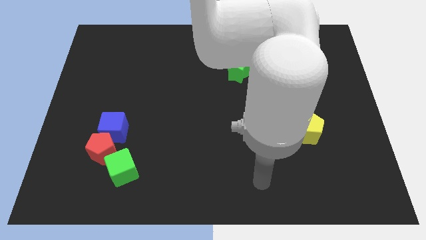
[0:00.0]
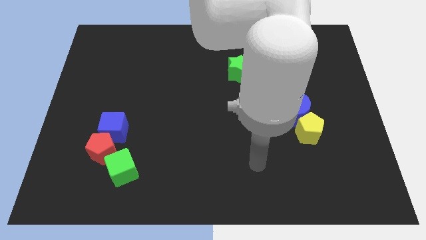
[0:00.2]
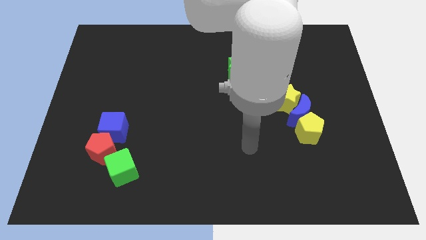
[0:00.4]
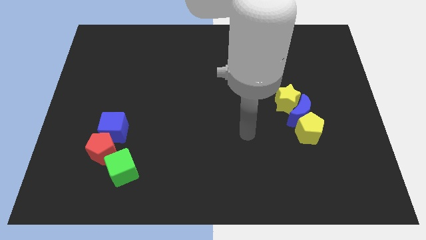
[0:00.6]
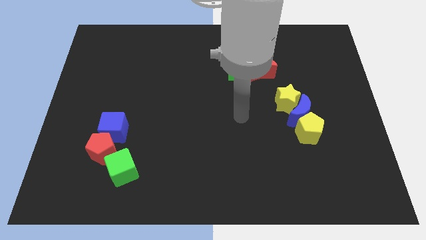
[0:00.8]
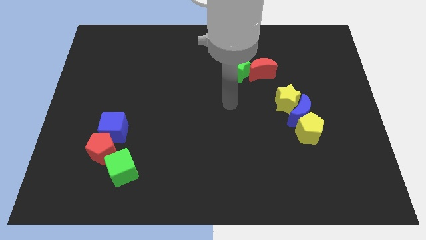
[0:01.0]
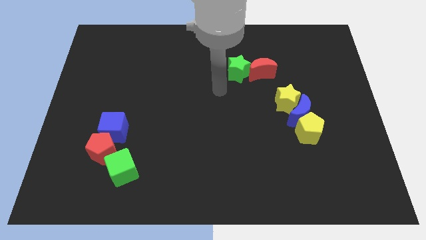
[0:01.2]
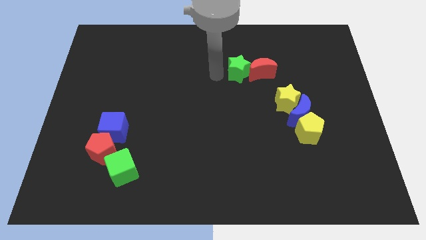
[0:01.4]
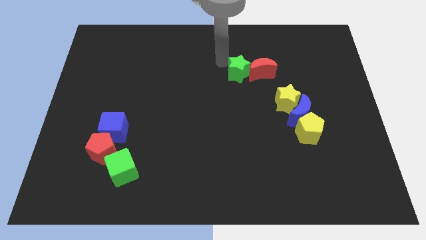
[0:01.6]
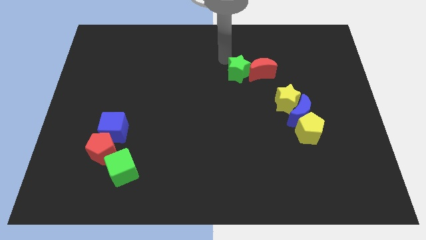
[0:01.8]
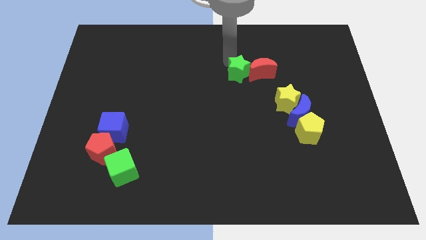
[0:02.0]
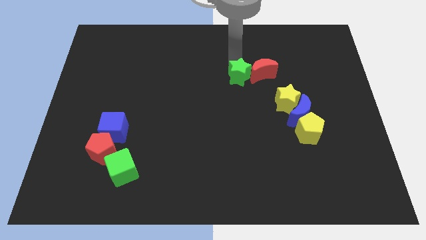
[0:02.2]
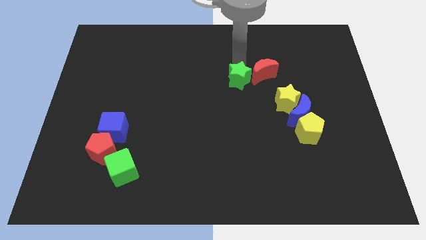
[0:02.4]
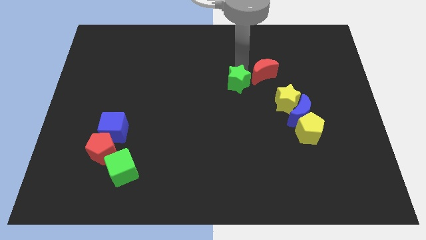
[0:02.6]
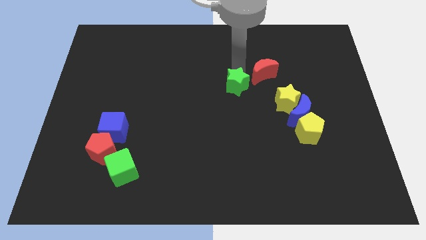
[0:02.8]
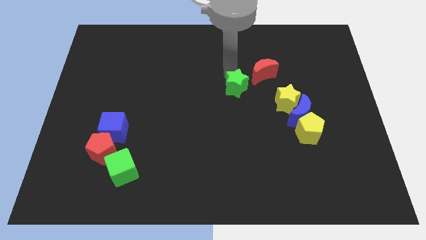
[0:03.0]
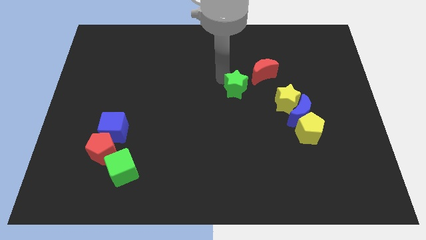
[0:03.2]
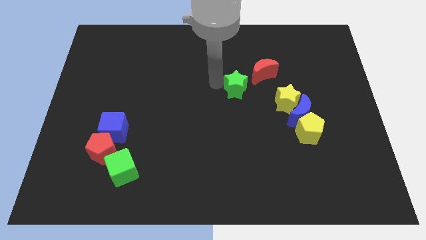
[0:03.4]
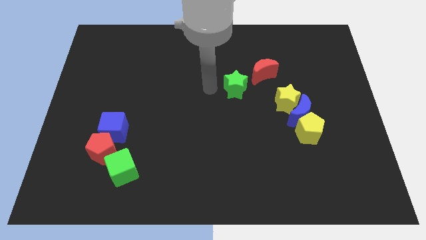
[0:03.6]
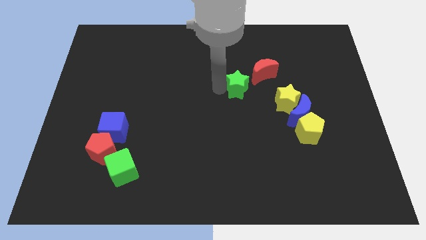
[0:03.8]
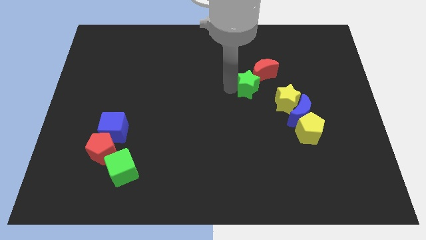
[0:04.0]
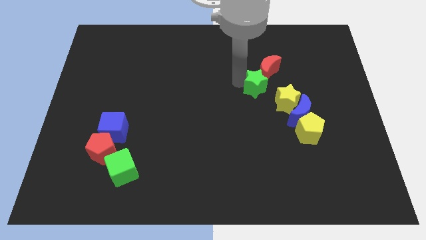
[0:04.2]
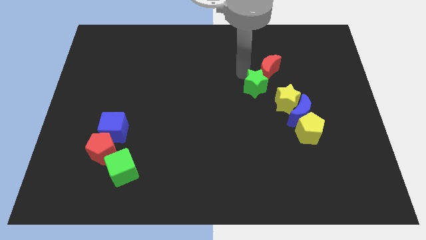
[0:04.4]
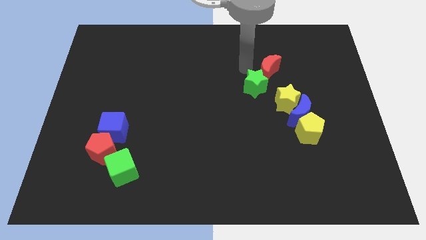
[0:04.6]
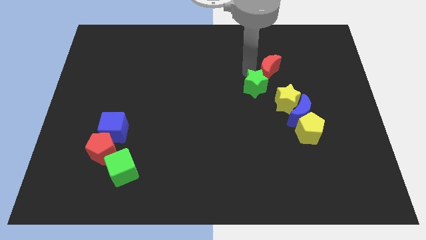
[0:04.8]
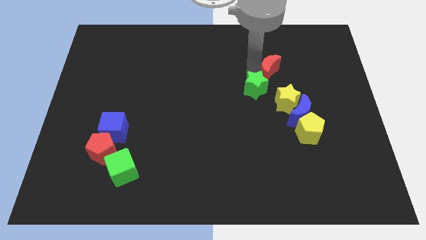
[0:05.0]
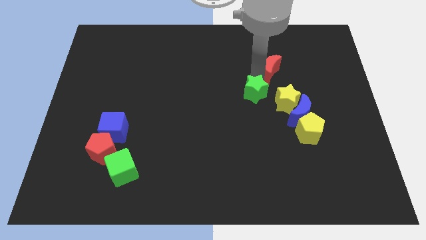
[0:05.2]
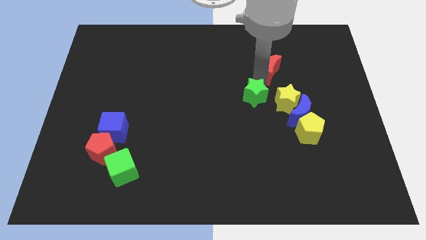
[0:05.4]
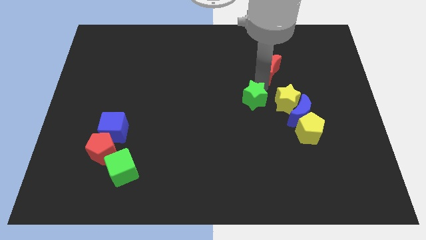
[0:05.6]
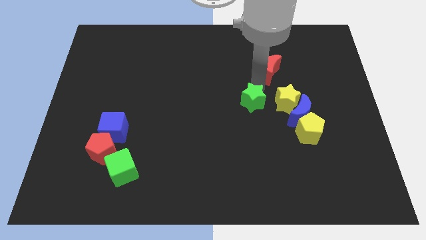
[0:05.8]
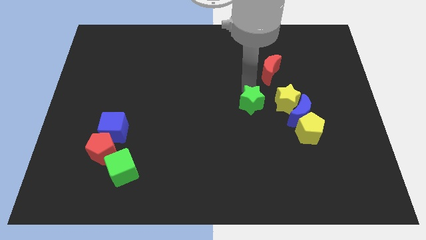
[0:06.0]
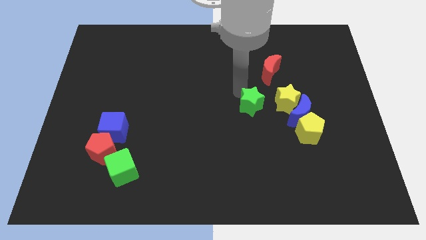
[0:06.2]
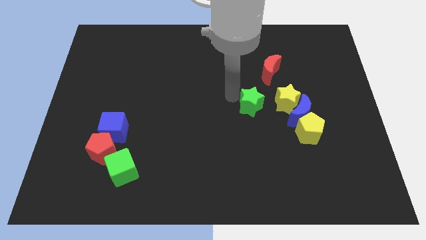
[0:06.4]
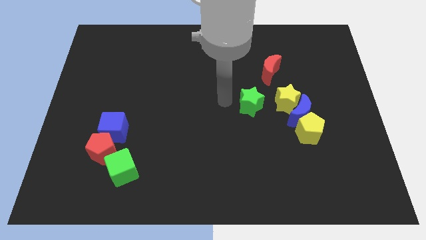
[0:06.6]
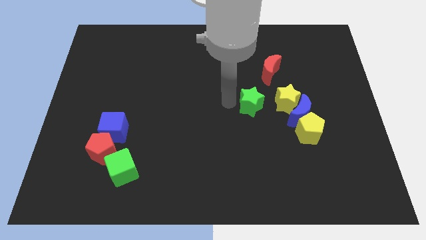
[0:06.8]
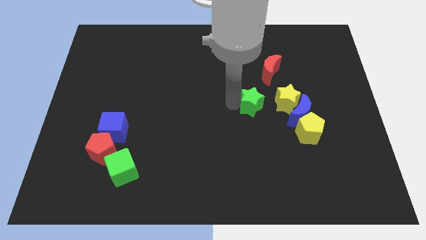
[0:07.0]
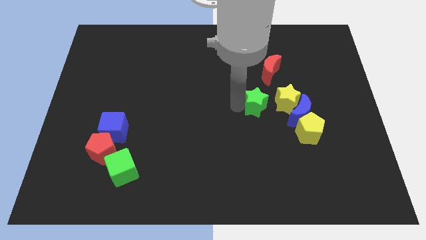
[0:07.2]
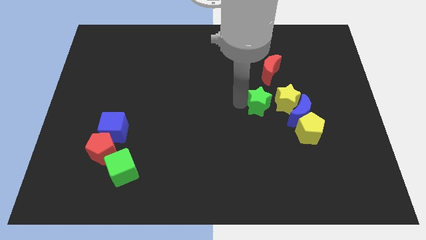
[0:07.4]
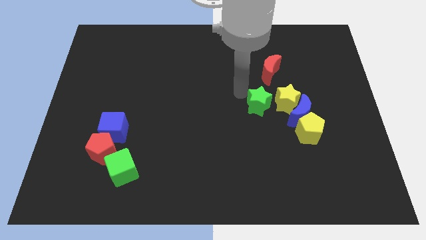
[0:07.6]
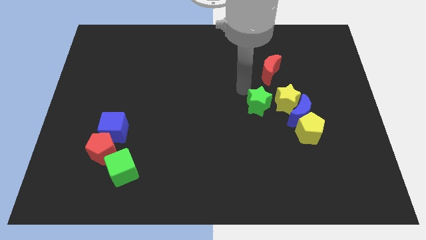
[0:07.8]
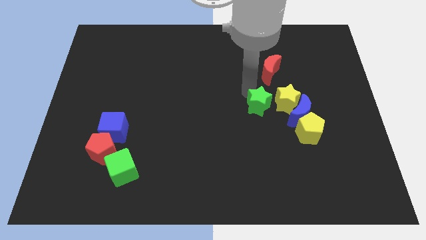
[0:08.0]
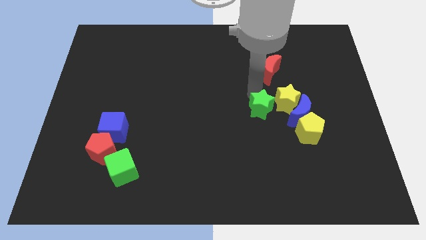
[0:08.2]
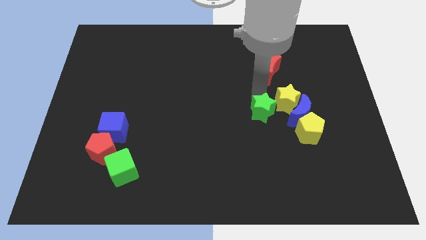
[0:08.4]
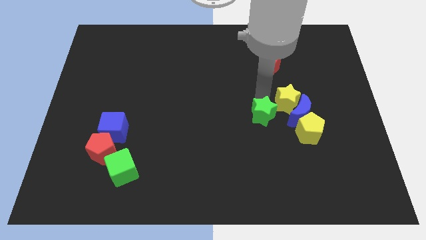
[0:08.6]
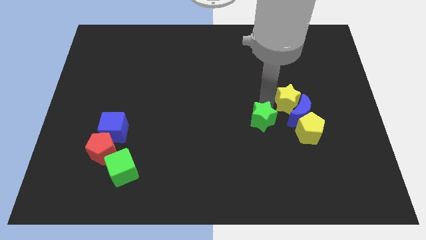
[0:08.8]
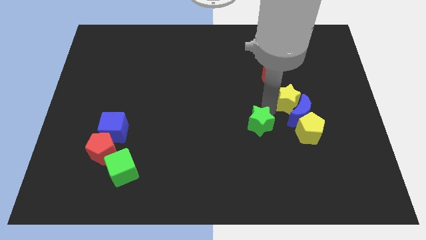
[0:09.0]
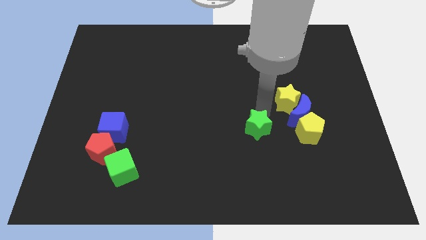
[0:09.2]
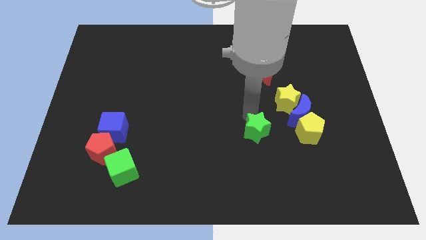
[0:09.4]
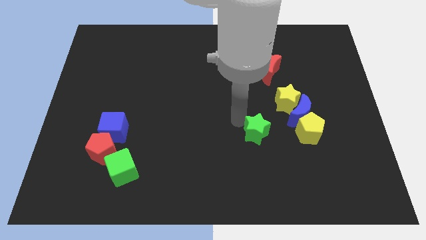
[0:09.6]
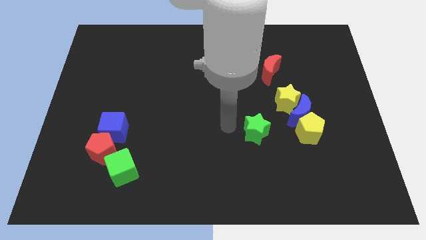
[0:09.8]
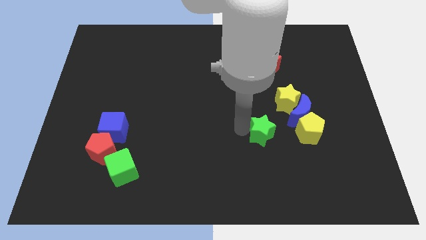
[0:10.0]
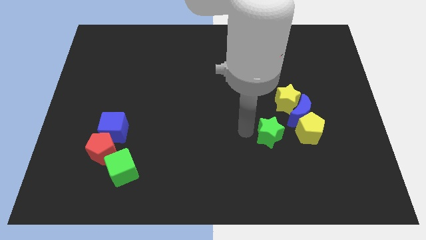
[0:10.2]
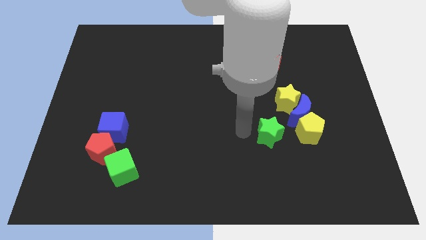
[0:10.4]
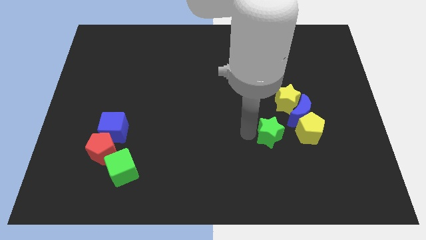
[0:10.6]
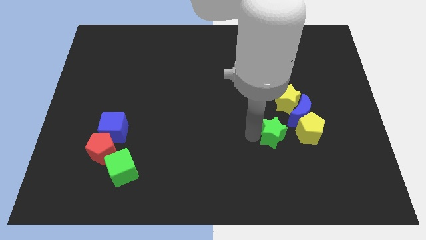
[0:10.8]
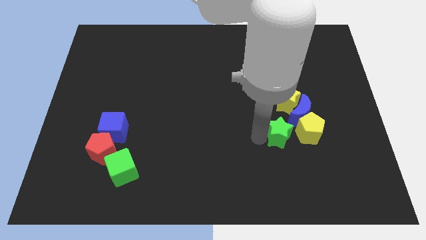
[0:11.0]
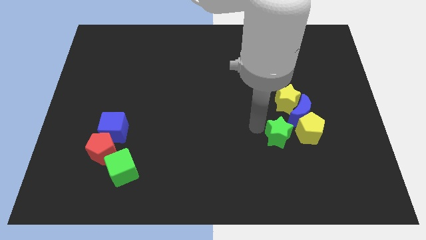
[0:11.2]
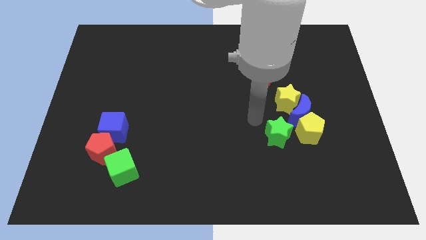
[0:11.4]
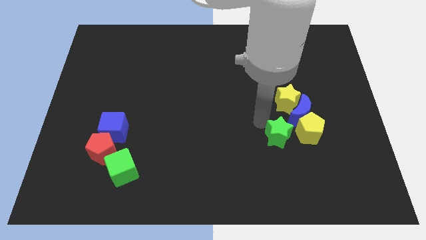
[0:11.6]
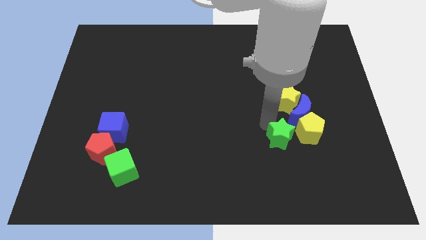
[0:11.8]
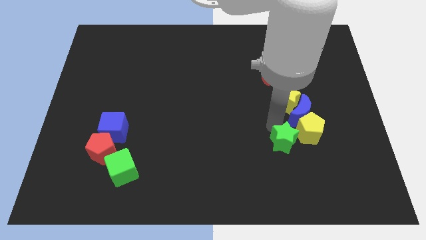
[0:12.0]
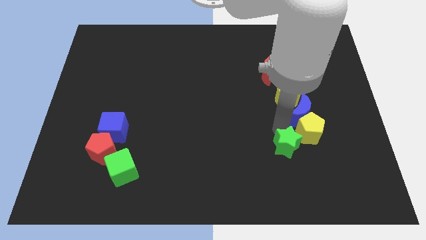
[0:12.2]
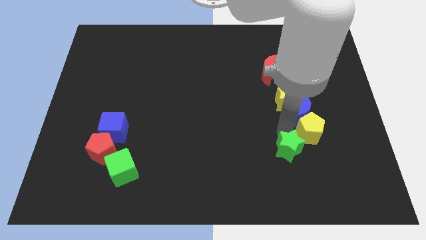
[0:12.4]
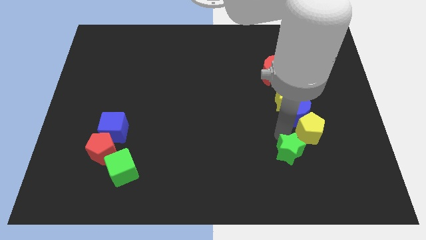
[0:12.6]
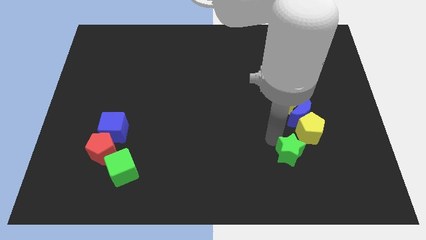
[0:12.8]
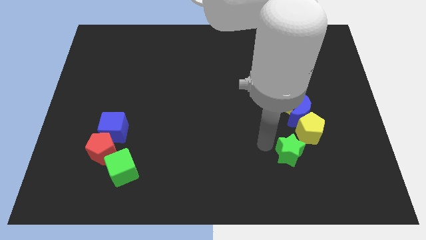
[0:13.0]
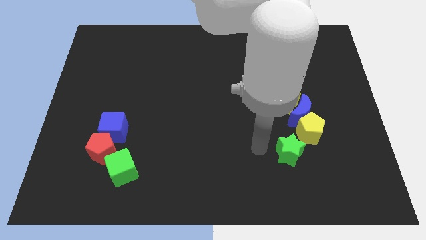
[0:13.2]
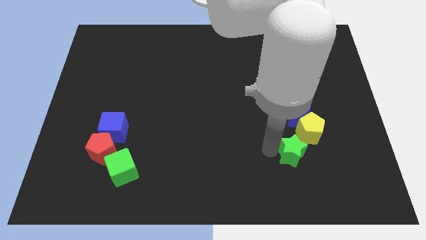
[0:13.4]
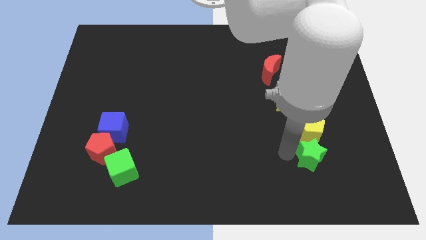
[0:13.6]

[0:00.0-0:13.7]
slide the green star diagonally down and to the right of the yellow pentagon
